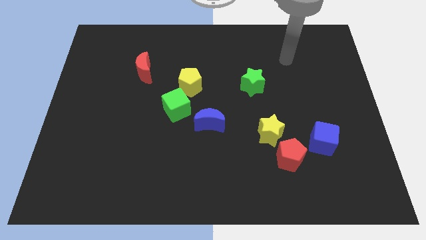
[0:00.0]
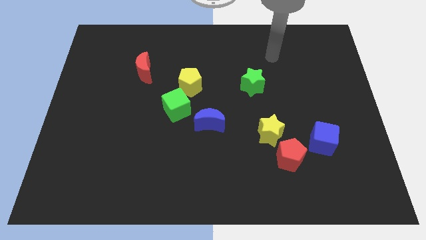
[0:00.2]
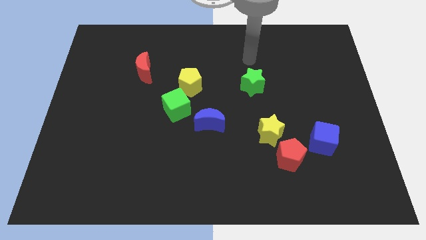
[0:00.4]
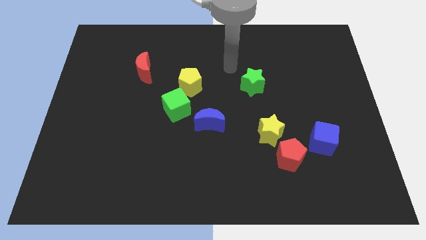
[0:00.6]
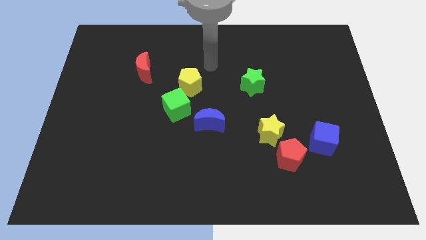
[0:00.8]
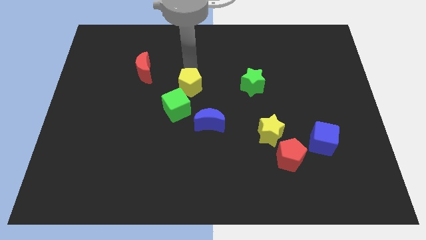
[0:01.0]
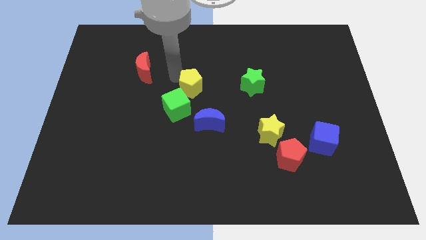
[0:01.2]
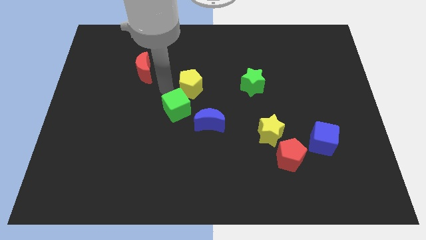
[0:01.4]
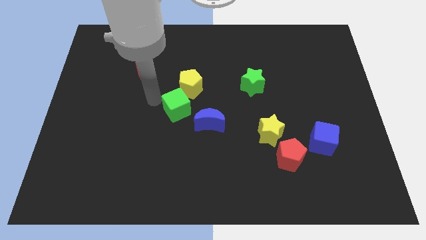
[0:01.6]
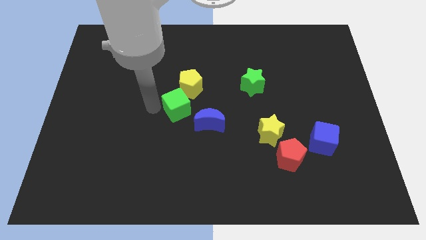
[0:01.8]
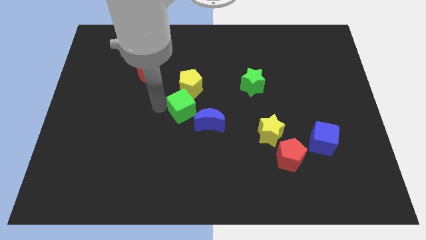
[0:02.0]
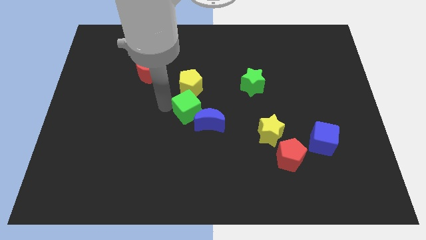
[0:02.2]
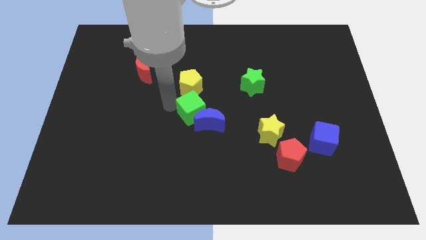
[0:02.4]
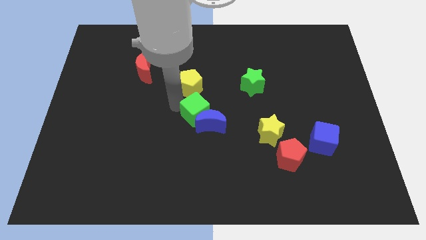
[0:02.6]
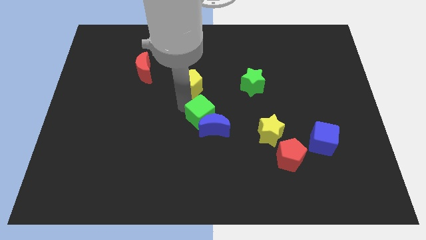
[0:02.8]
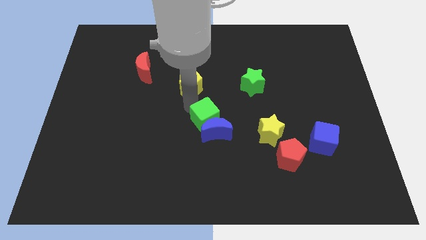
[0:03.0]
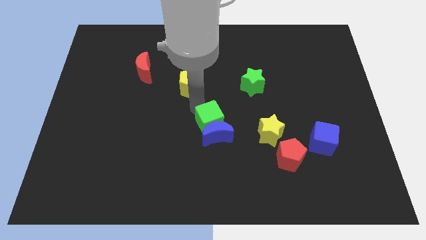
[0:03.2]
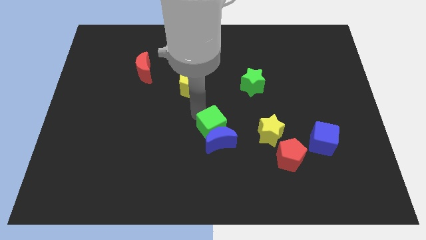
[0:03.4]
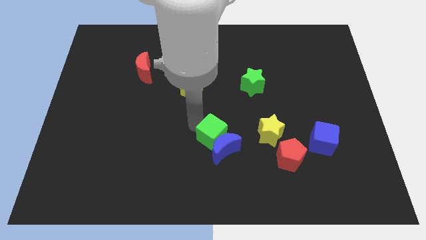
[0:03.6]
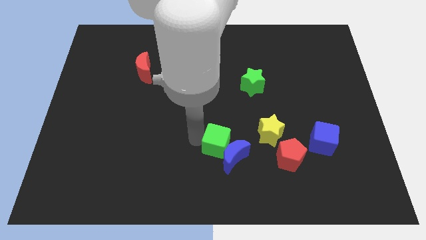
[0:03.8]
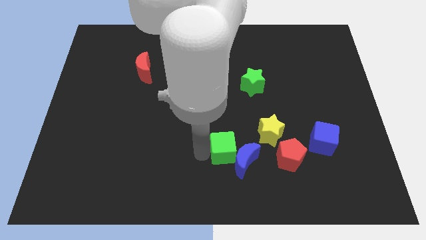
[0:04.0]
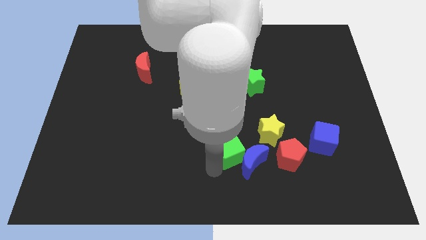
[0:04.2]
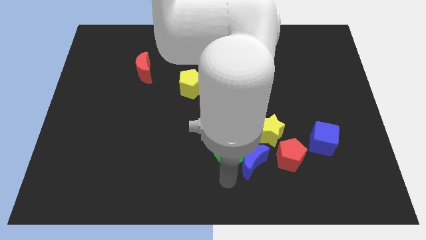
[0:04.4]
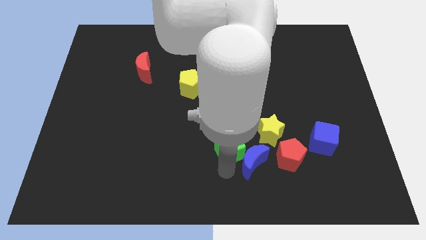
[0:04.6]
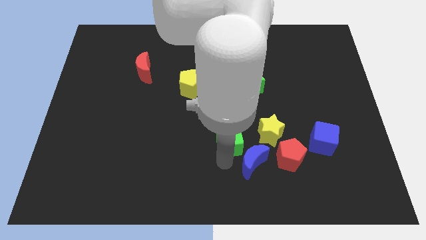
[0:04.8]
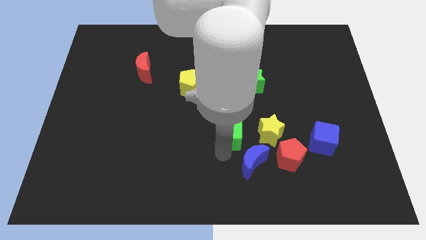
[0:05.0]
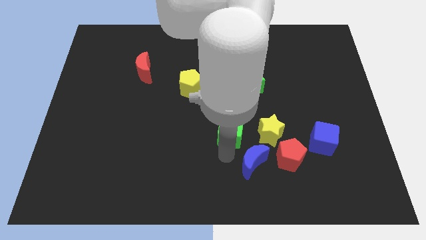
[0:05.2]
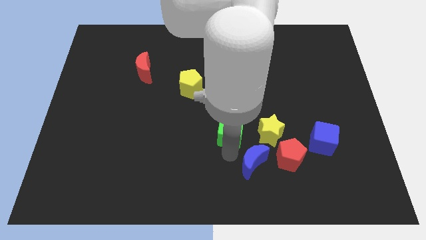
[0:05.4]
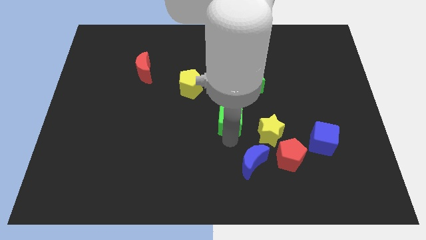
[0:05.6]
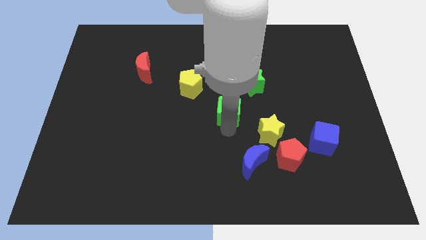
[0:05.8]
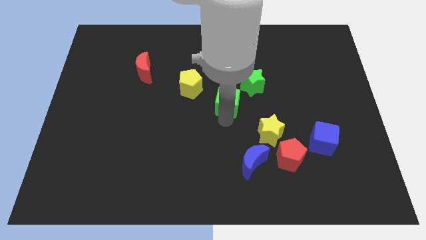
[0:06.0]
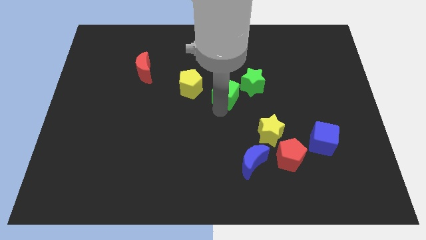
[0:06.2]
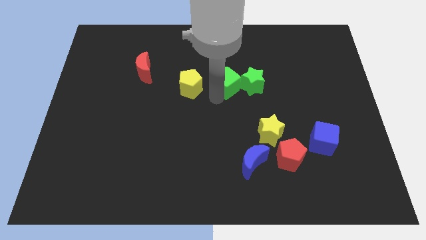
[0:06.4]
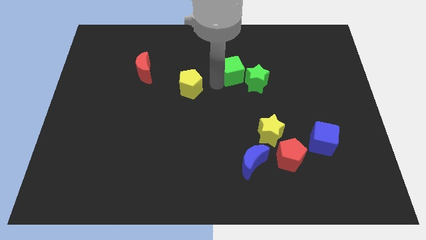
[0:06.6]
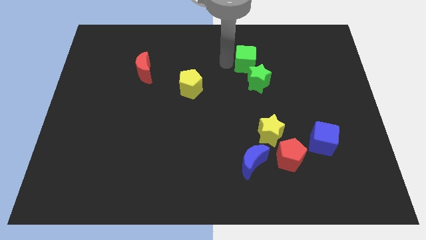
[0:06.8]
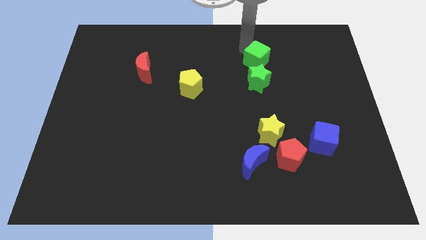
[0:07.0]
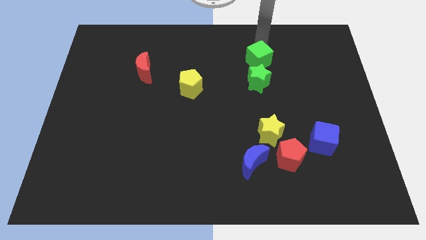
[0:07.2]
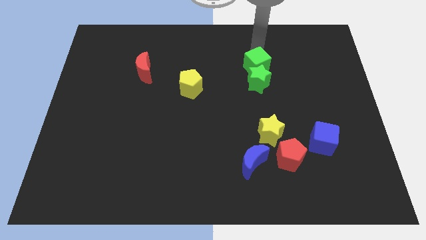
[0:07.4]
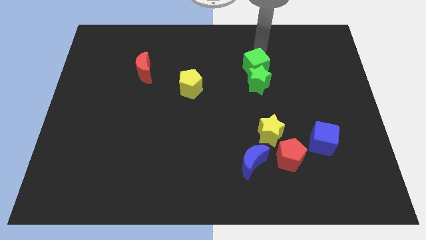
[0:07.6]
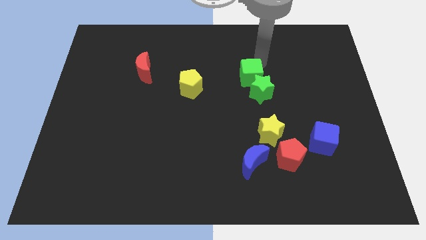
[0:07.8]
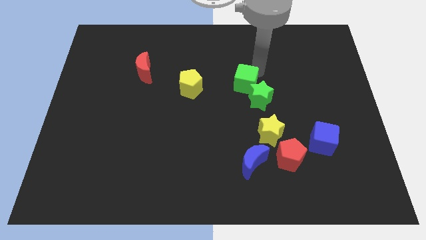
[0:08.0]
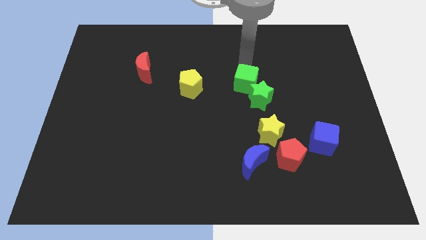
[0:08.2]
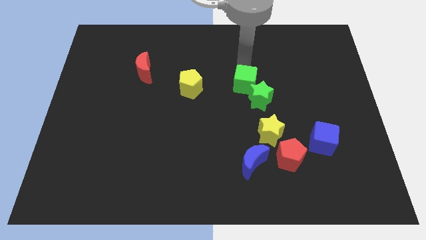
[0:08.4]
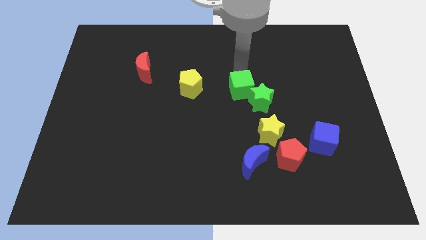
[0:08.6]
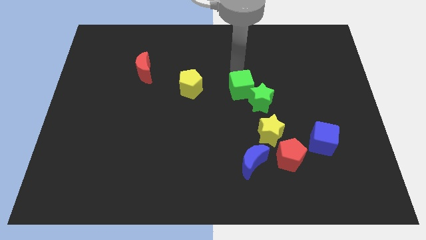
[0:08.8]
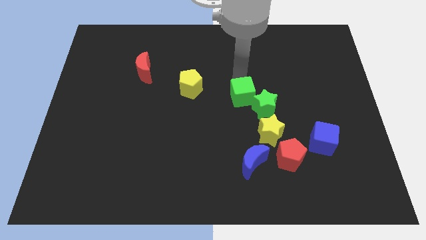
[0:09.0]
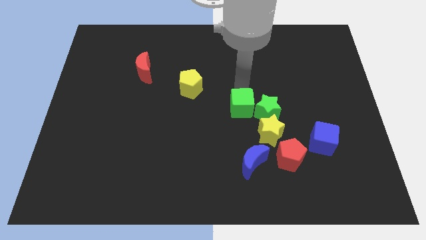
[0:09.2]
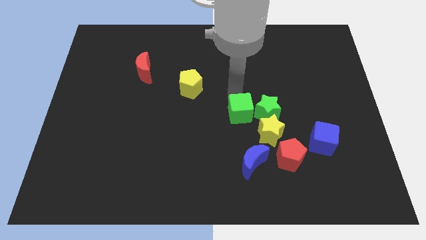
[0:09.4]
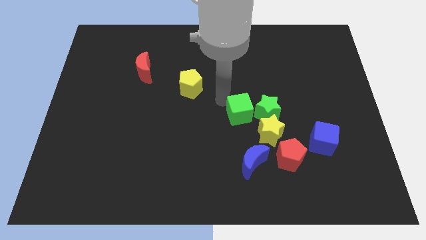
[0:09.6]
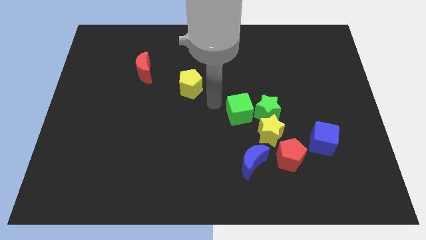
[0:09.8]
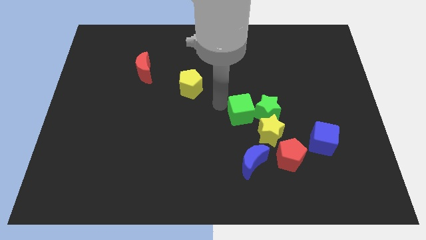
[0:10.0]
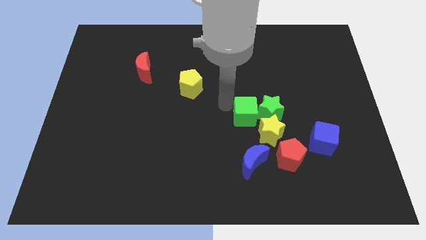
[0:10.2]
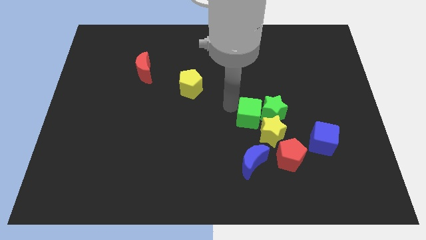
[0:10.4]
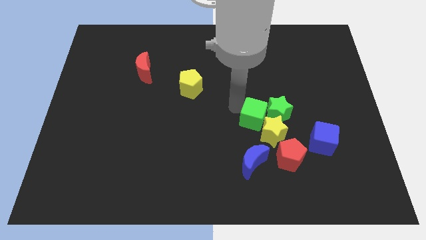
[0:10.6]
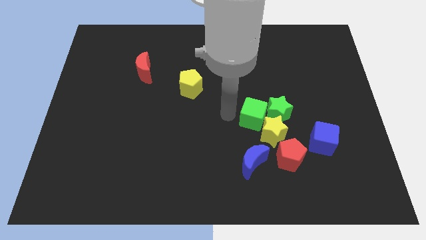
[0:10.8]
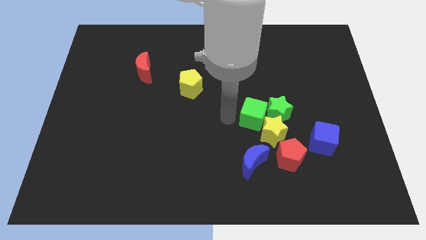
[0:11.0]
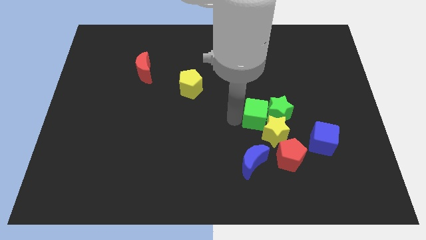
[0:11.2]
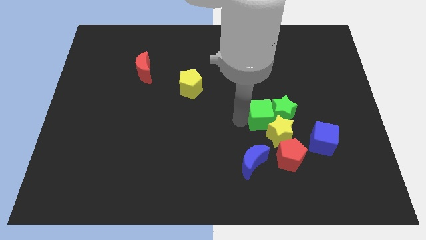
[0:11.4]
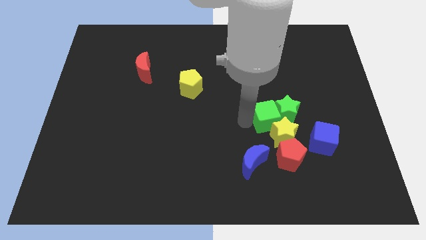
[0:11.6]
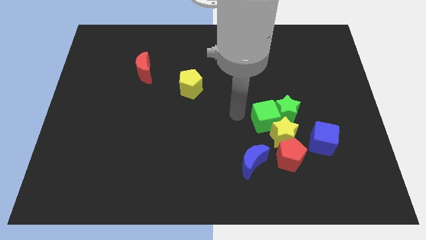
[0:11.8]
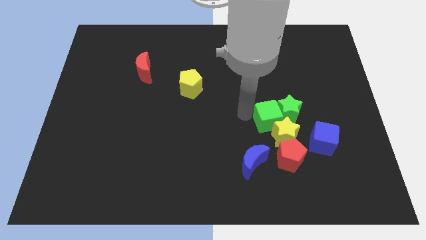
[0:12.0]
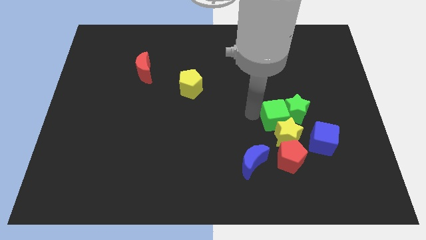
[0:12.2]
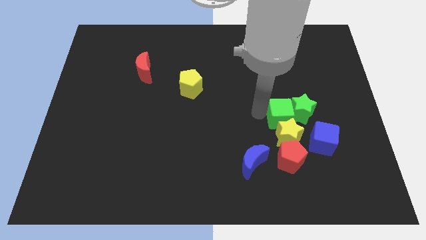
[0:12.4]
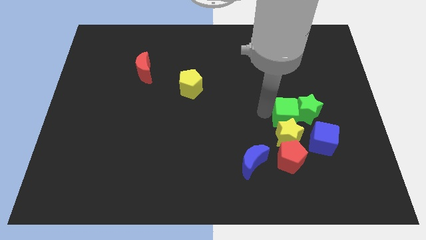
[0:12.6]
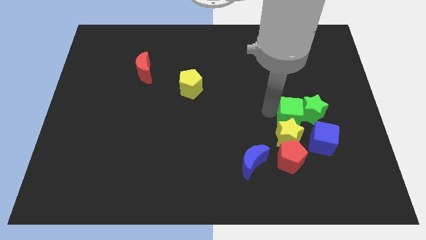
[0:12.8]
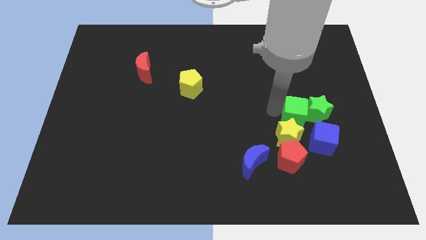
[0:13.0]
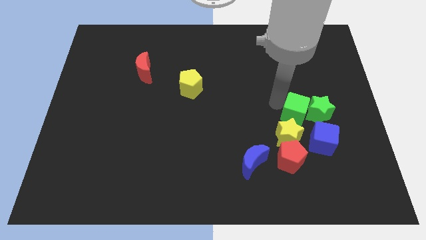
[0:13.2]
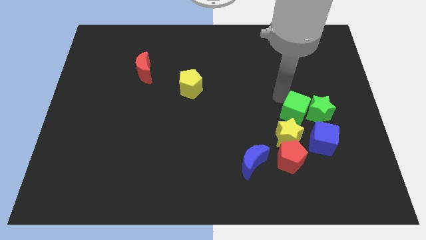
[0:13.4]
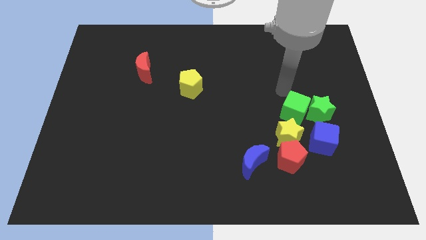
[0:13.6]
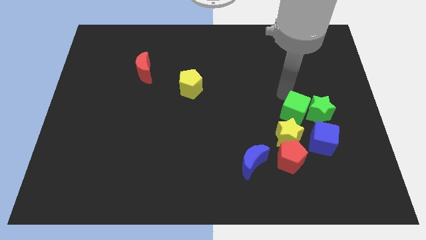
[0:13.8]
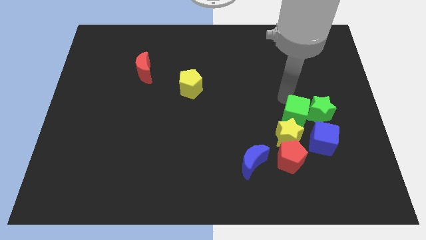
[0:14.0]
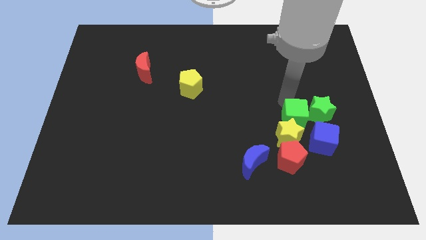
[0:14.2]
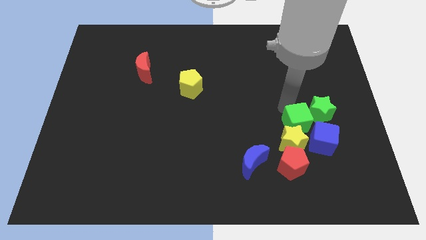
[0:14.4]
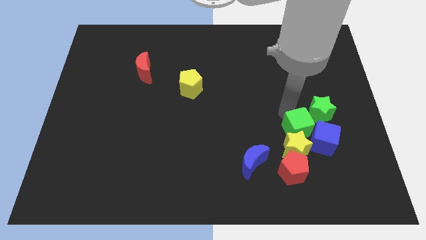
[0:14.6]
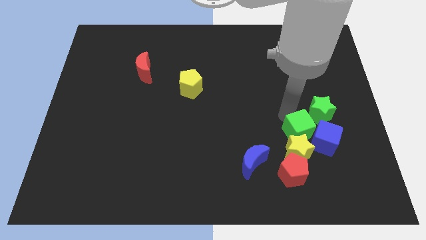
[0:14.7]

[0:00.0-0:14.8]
push the green cube next to the blue cube
